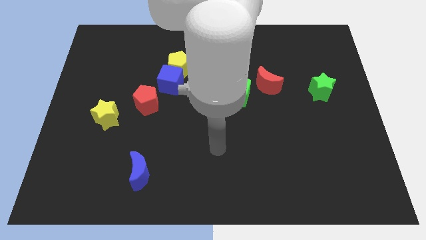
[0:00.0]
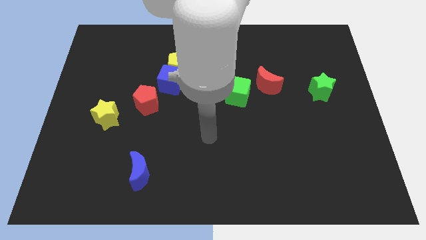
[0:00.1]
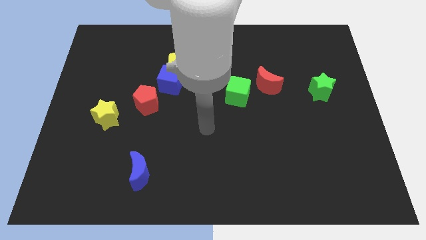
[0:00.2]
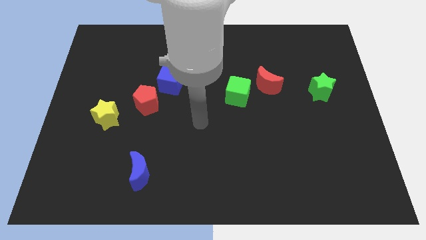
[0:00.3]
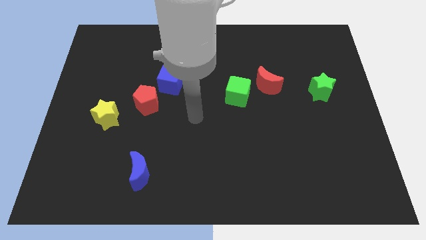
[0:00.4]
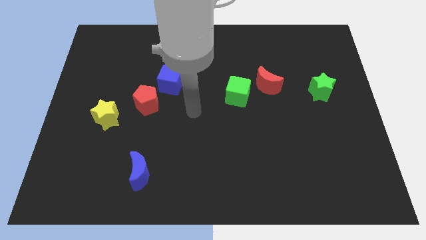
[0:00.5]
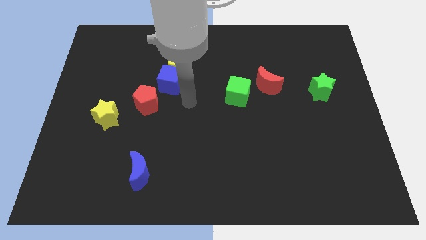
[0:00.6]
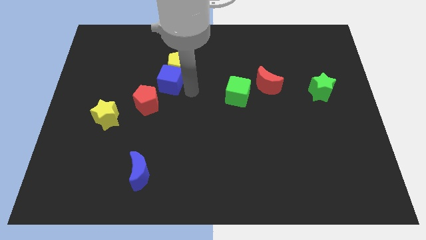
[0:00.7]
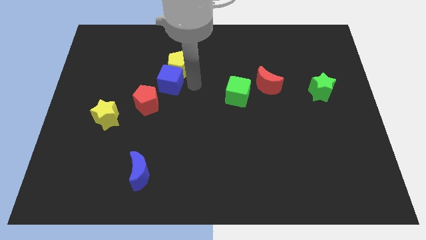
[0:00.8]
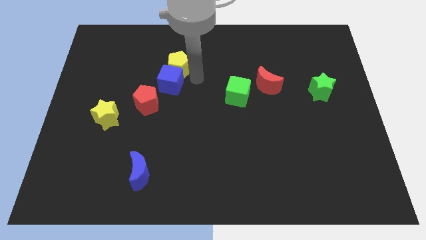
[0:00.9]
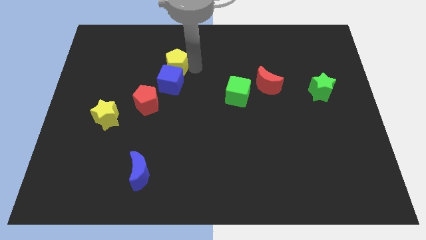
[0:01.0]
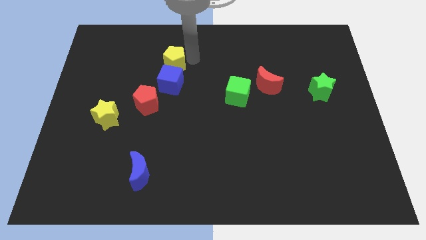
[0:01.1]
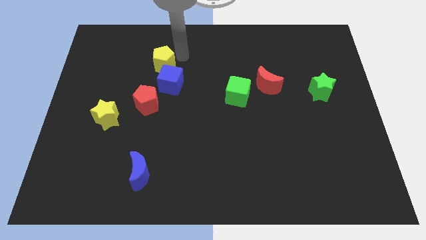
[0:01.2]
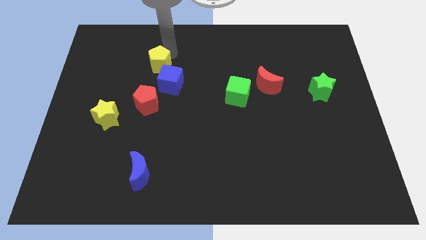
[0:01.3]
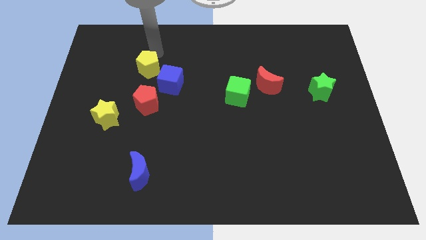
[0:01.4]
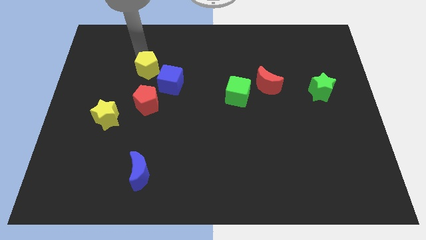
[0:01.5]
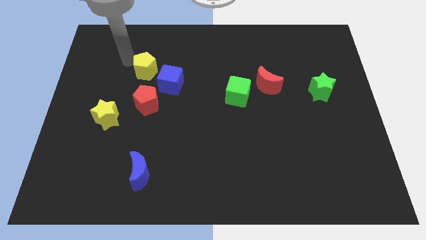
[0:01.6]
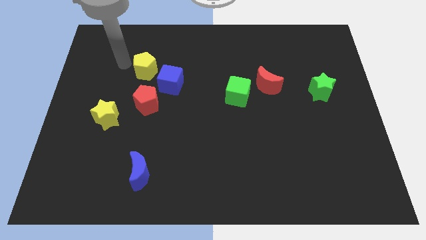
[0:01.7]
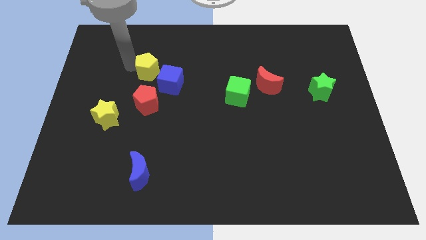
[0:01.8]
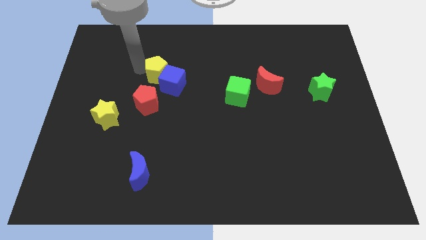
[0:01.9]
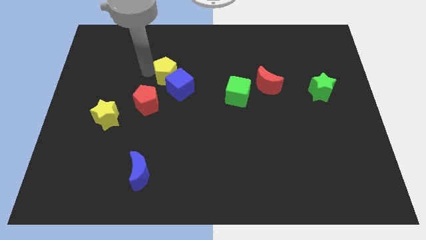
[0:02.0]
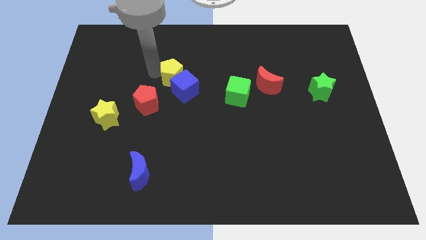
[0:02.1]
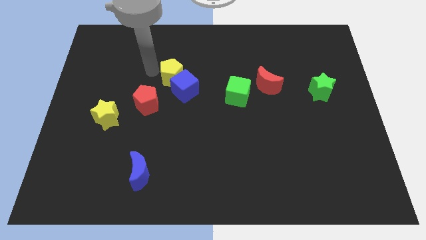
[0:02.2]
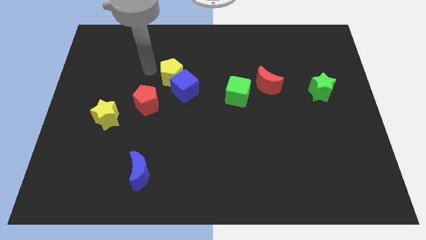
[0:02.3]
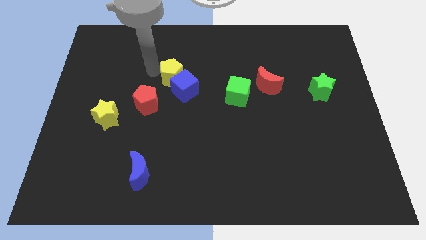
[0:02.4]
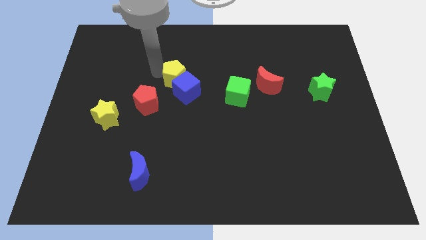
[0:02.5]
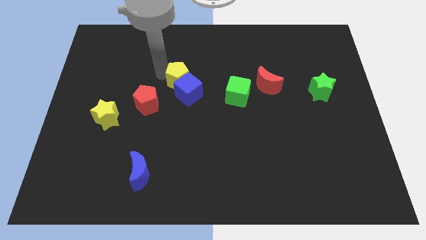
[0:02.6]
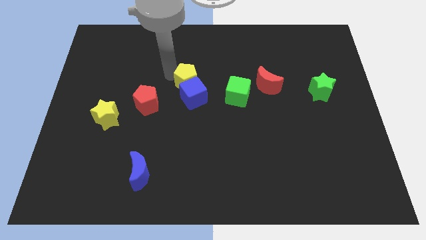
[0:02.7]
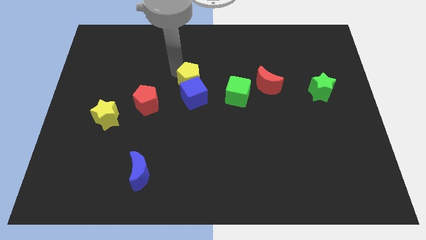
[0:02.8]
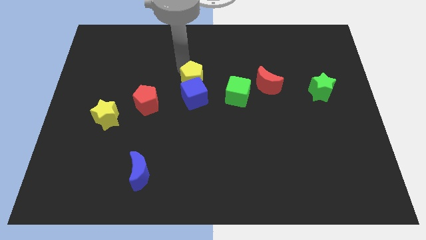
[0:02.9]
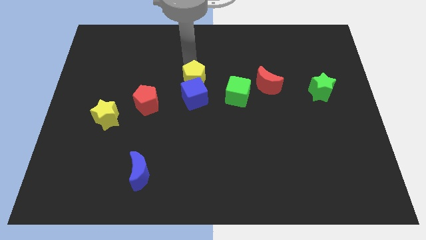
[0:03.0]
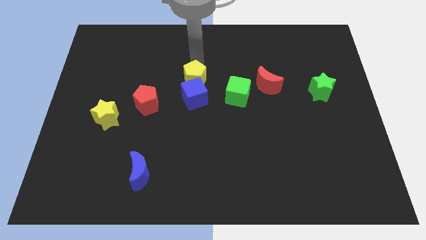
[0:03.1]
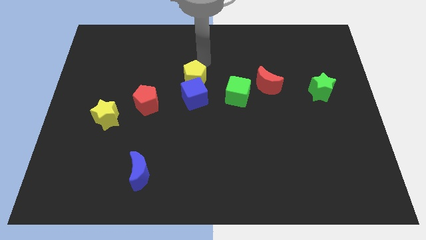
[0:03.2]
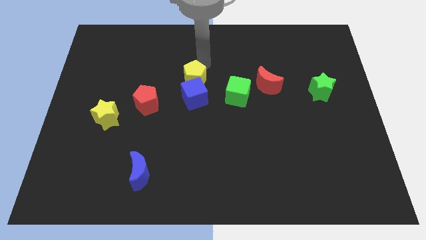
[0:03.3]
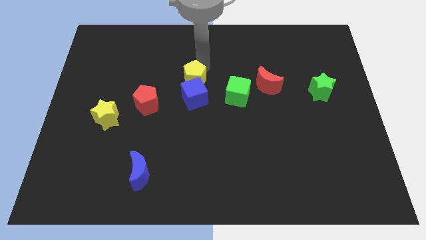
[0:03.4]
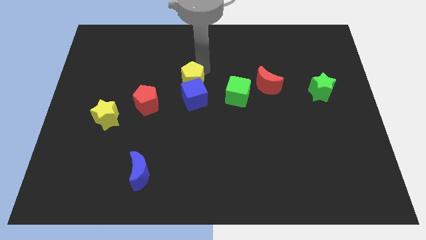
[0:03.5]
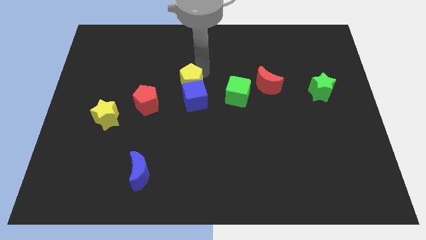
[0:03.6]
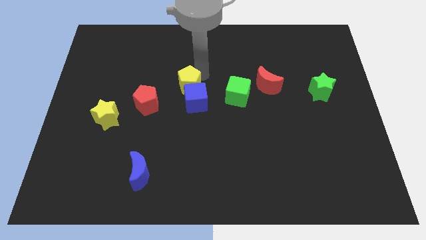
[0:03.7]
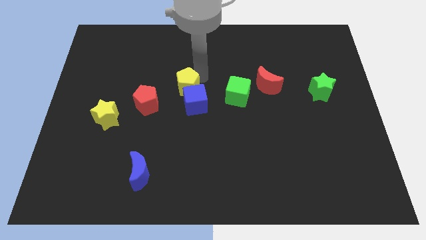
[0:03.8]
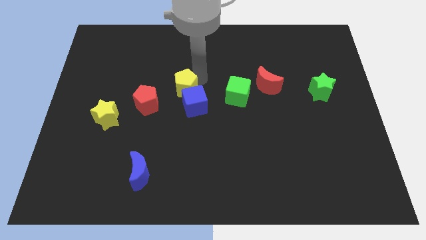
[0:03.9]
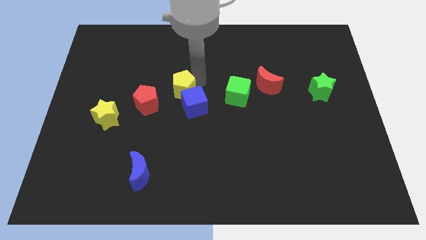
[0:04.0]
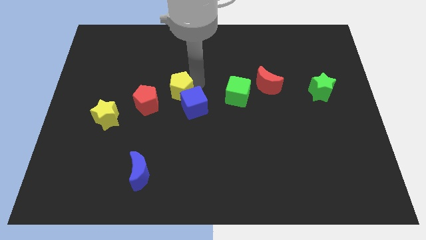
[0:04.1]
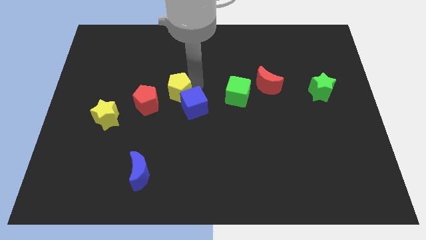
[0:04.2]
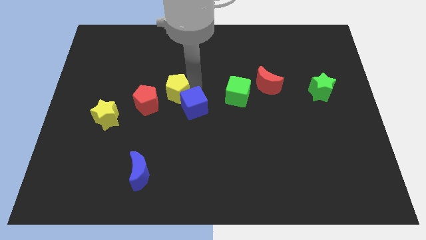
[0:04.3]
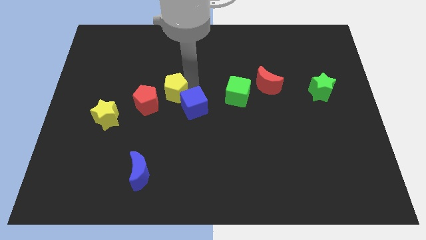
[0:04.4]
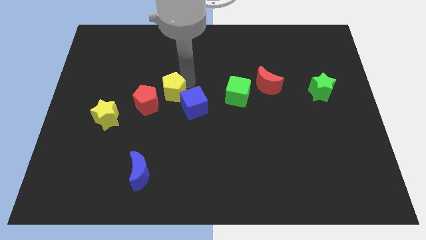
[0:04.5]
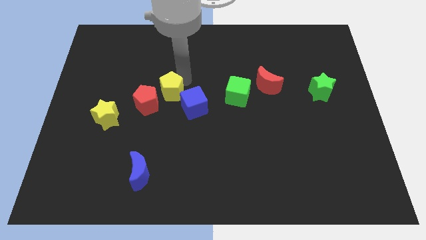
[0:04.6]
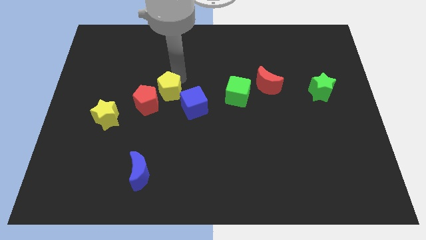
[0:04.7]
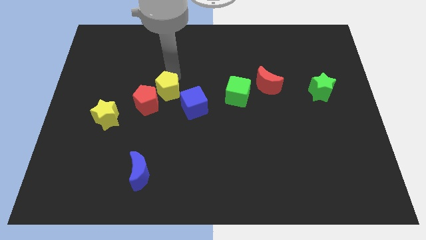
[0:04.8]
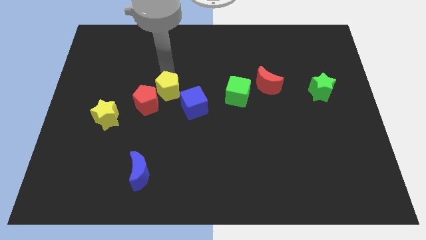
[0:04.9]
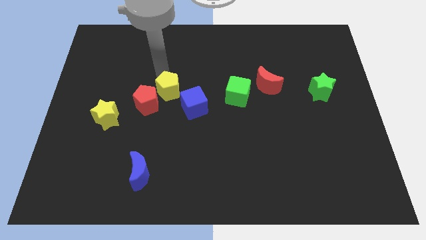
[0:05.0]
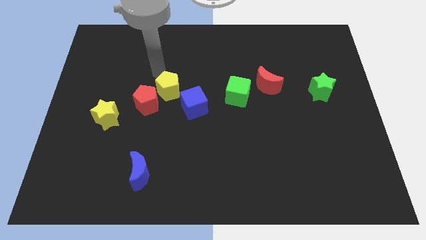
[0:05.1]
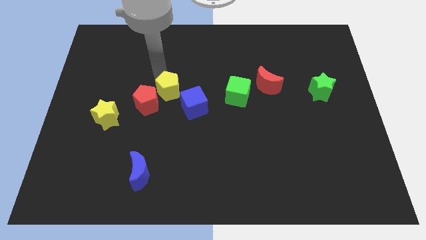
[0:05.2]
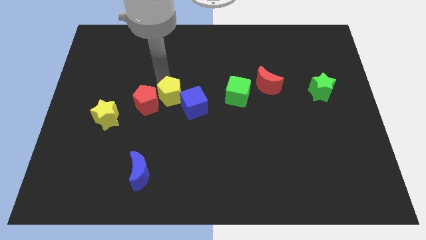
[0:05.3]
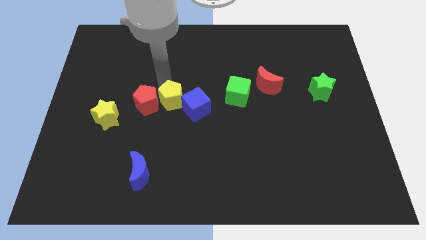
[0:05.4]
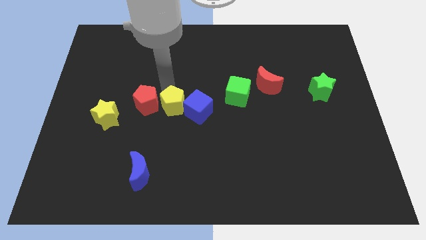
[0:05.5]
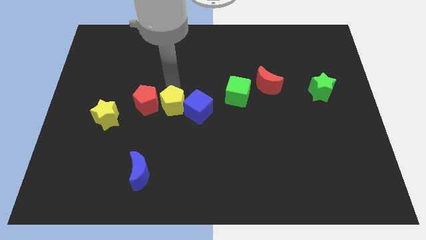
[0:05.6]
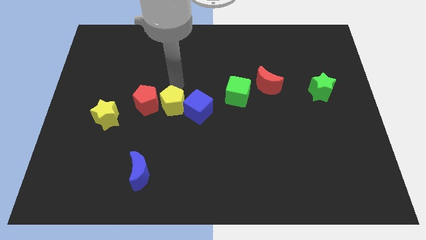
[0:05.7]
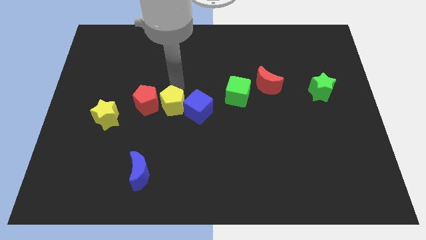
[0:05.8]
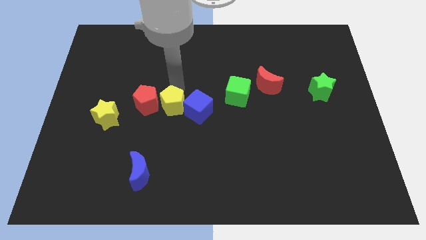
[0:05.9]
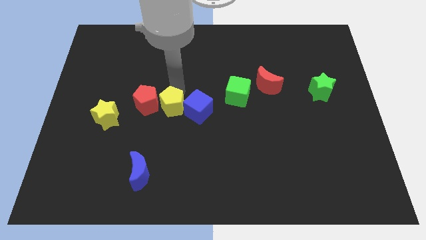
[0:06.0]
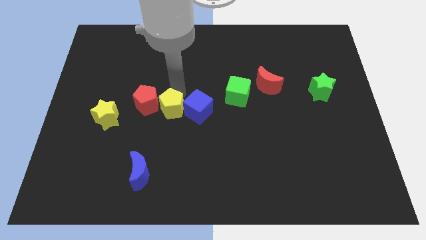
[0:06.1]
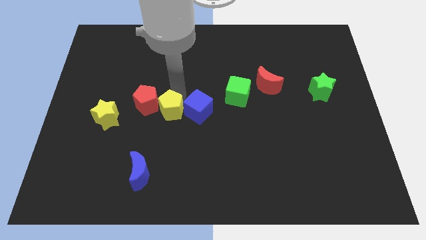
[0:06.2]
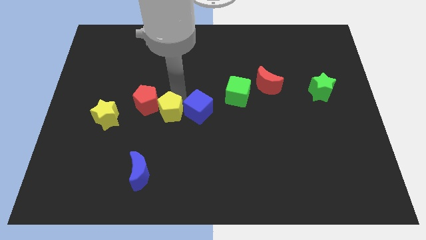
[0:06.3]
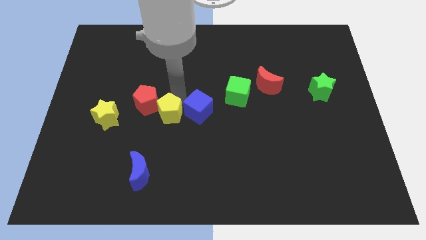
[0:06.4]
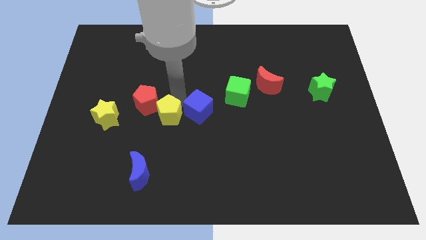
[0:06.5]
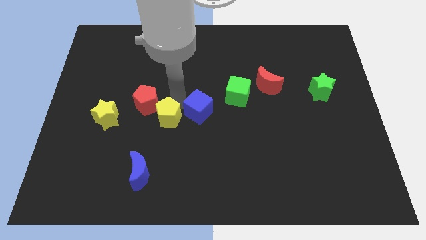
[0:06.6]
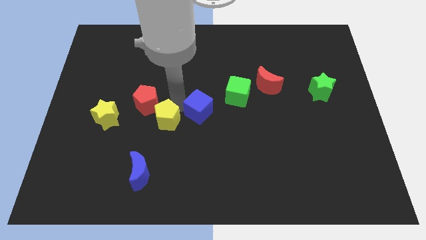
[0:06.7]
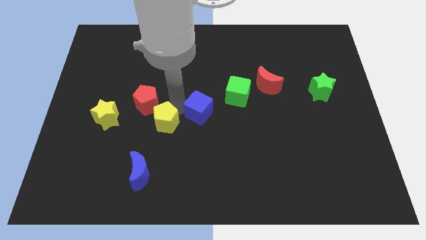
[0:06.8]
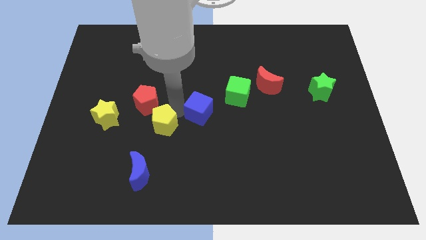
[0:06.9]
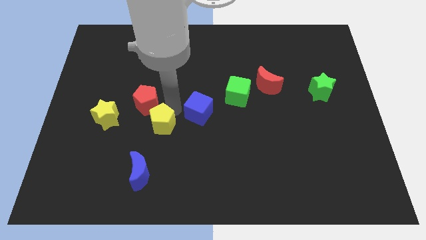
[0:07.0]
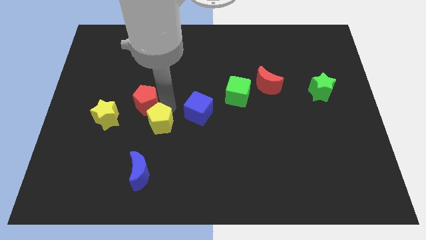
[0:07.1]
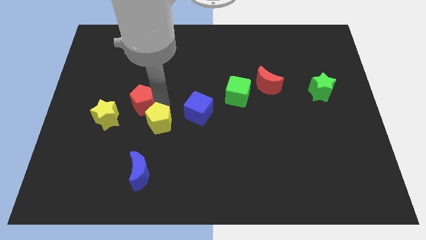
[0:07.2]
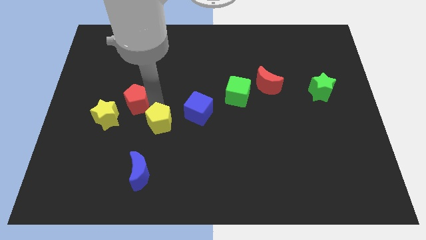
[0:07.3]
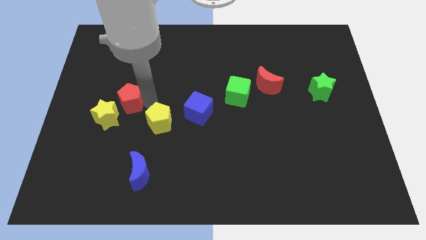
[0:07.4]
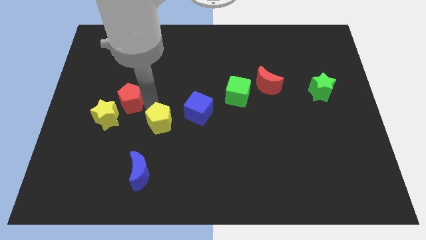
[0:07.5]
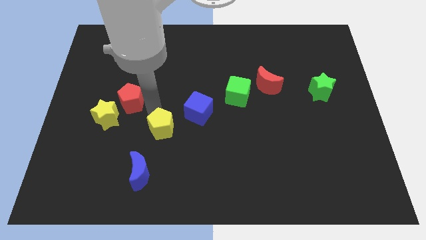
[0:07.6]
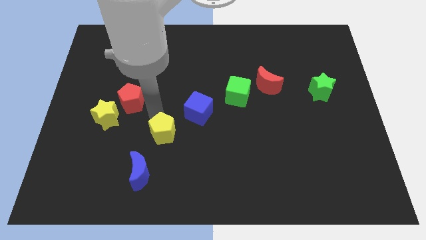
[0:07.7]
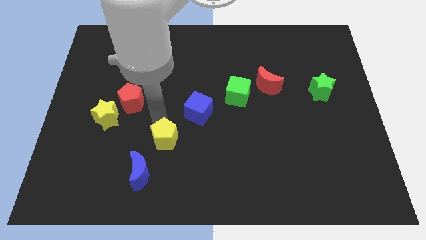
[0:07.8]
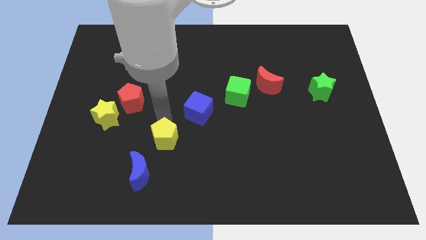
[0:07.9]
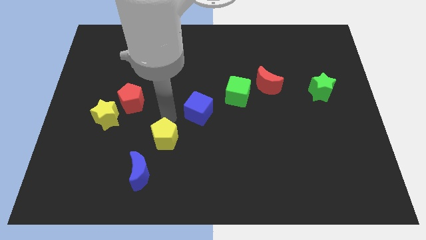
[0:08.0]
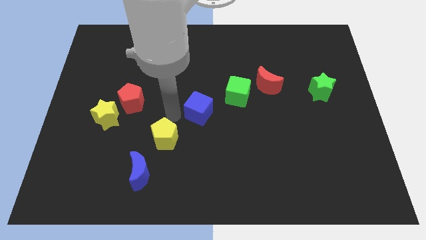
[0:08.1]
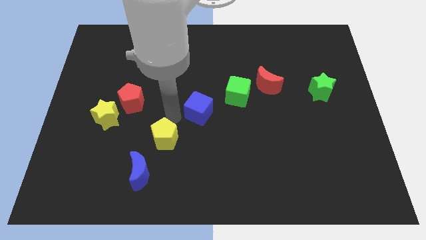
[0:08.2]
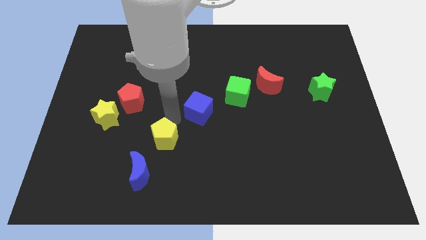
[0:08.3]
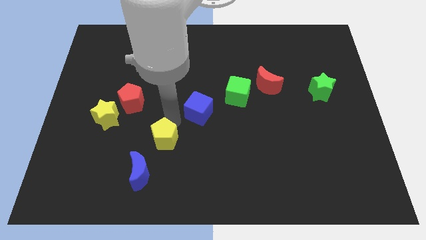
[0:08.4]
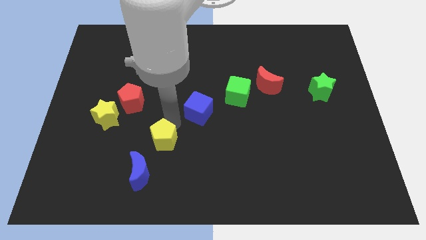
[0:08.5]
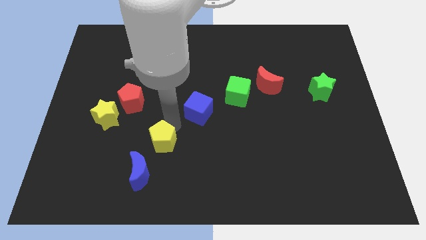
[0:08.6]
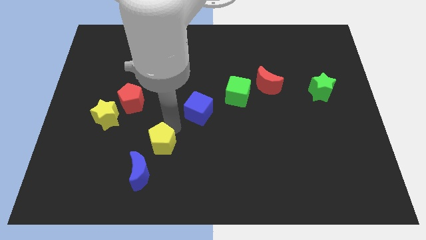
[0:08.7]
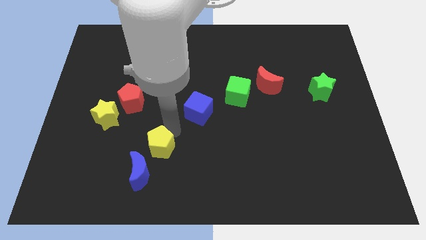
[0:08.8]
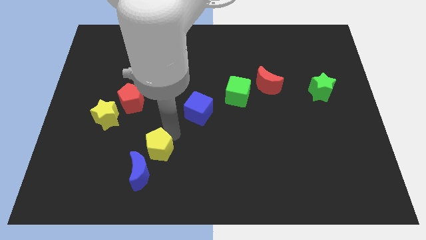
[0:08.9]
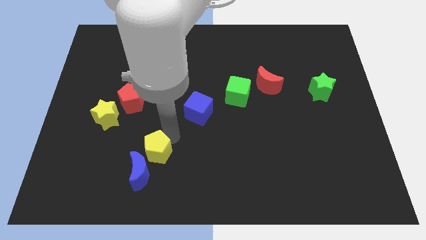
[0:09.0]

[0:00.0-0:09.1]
move the yellow pentagon next to the blue moon
